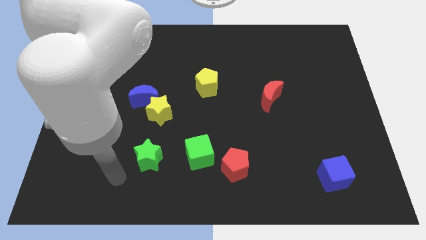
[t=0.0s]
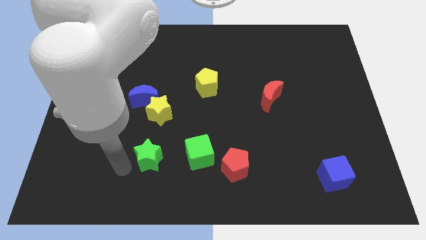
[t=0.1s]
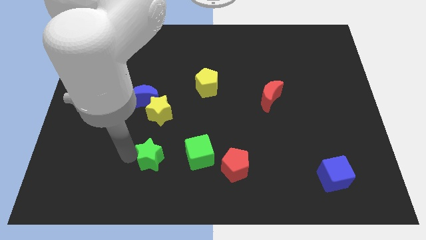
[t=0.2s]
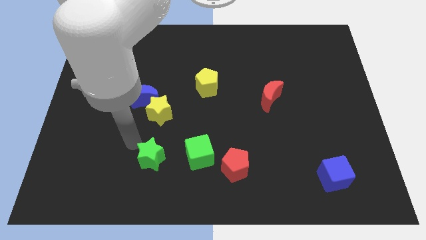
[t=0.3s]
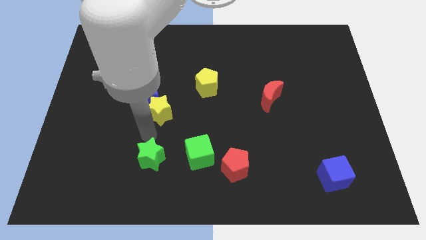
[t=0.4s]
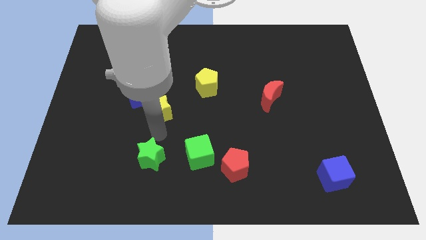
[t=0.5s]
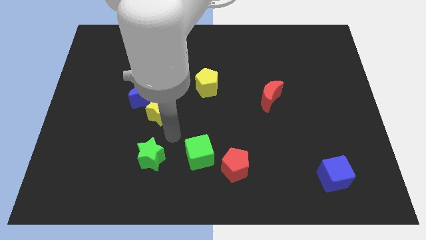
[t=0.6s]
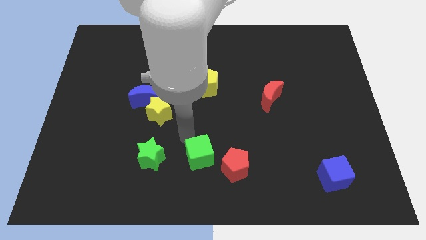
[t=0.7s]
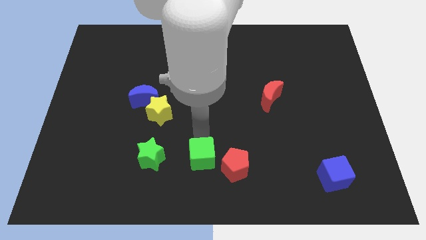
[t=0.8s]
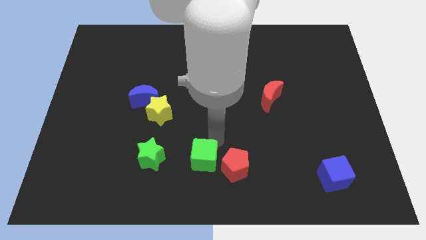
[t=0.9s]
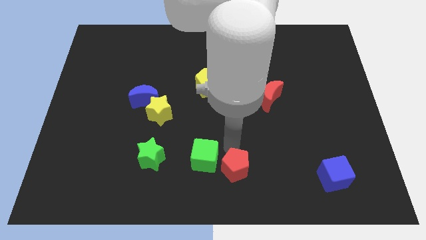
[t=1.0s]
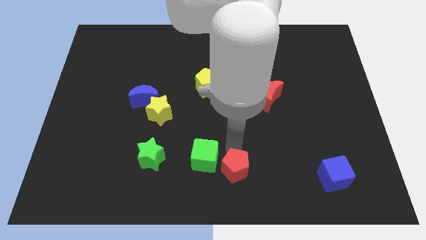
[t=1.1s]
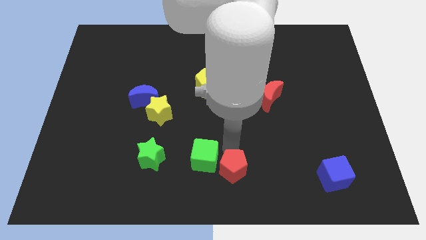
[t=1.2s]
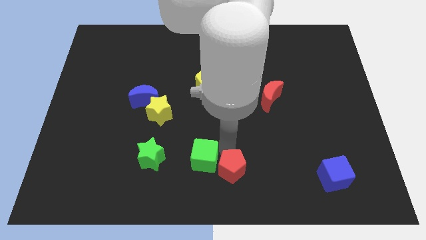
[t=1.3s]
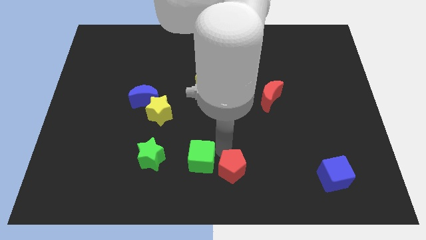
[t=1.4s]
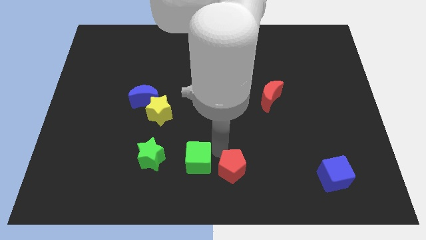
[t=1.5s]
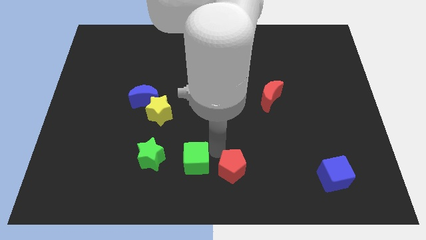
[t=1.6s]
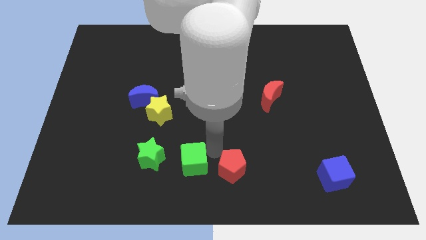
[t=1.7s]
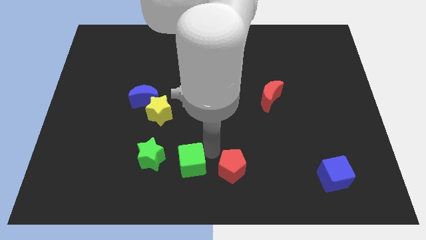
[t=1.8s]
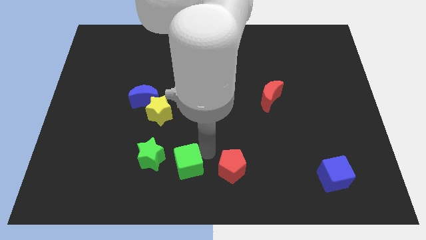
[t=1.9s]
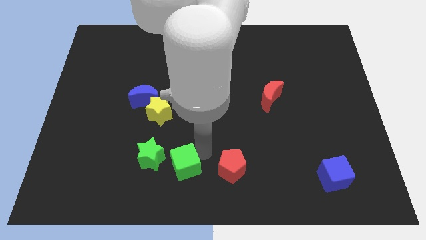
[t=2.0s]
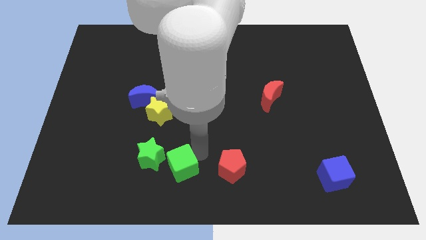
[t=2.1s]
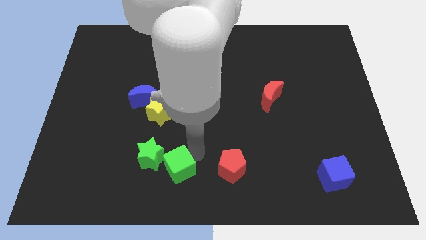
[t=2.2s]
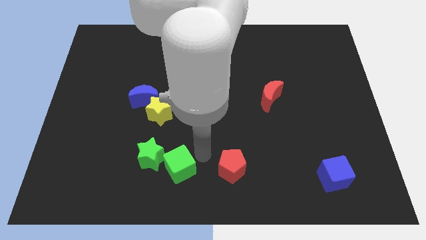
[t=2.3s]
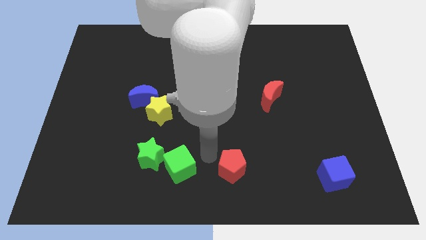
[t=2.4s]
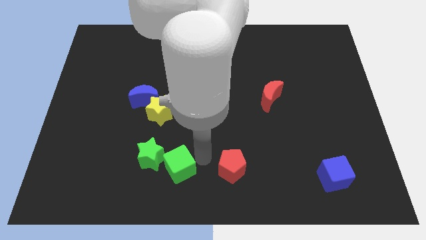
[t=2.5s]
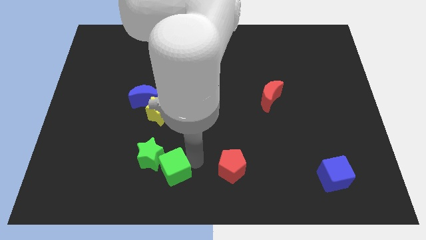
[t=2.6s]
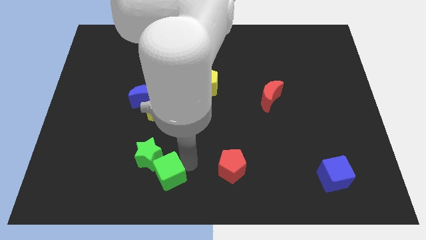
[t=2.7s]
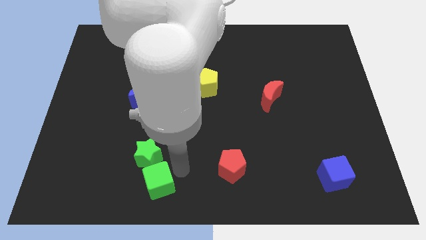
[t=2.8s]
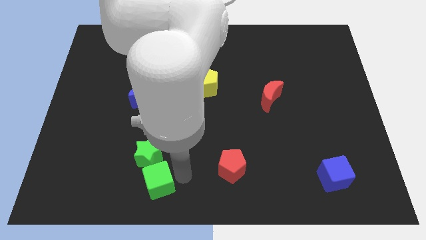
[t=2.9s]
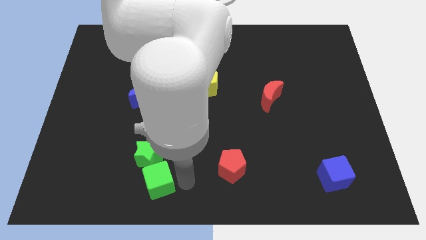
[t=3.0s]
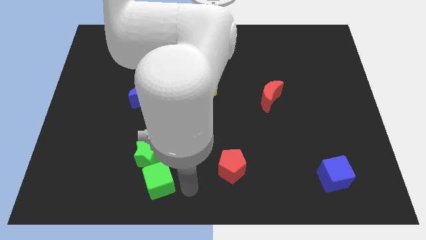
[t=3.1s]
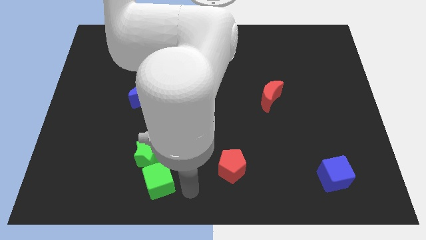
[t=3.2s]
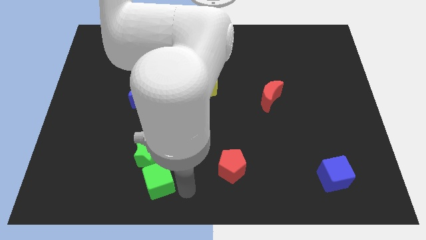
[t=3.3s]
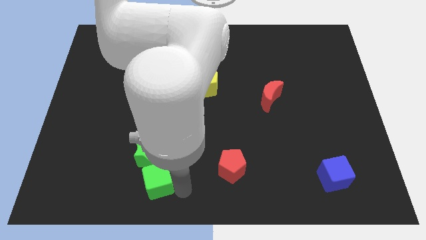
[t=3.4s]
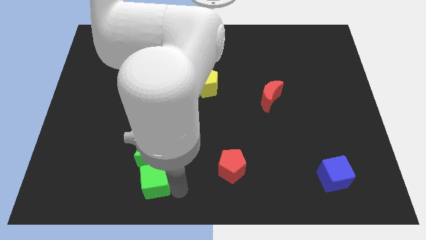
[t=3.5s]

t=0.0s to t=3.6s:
slide the green cube to the left a bit

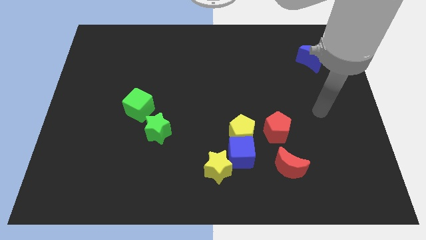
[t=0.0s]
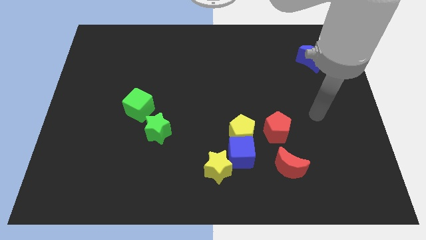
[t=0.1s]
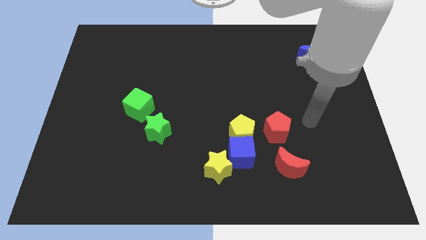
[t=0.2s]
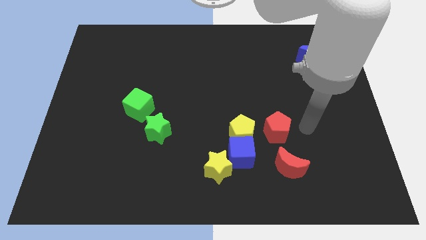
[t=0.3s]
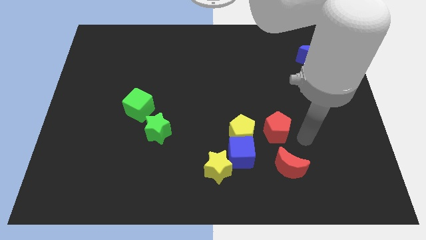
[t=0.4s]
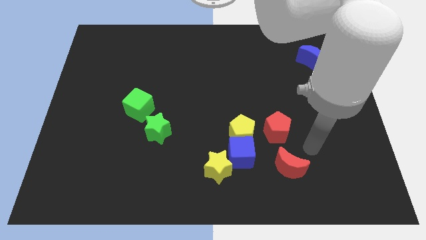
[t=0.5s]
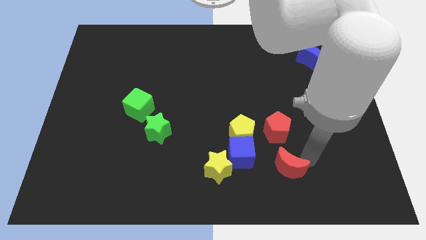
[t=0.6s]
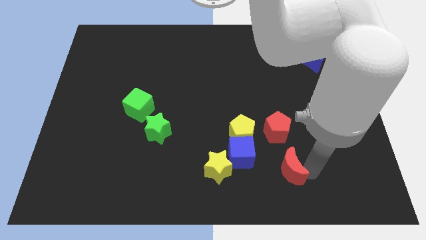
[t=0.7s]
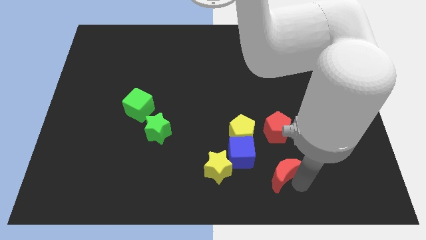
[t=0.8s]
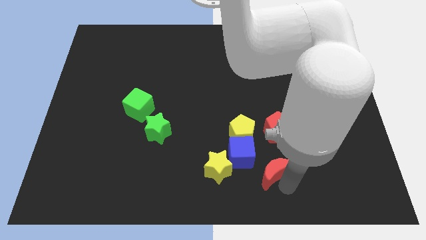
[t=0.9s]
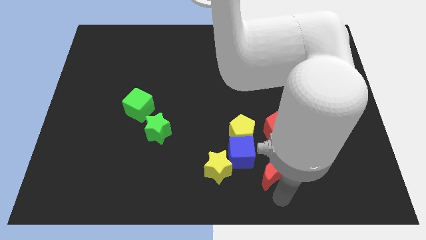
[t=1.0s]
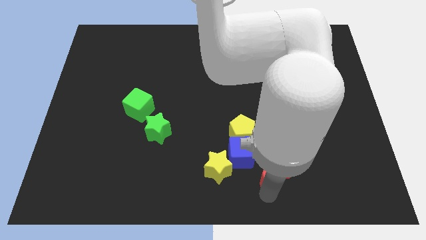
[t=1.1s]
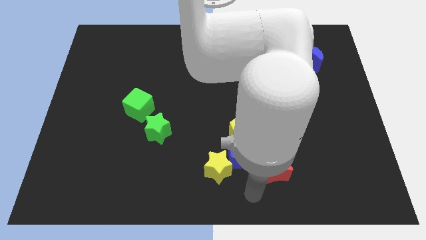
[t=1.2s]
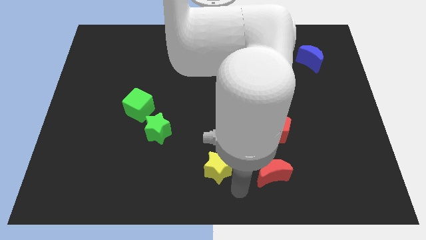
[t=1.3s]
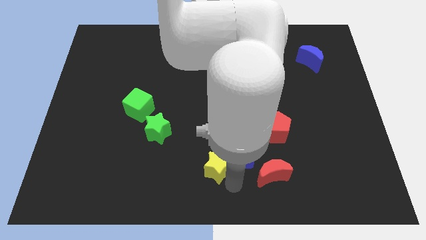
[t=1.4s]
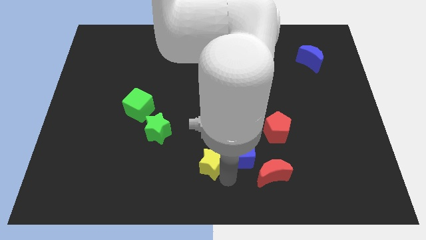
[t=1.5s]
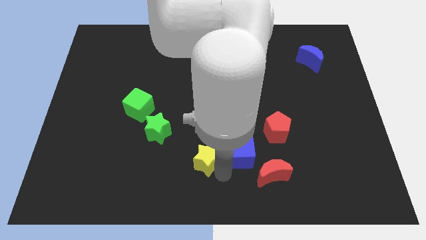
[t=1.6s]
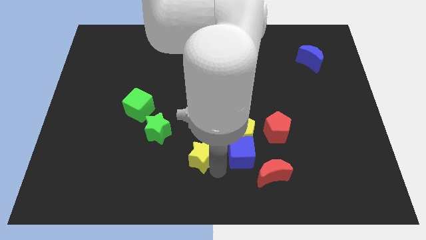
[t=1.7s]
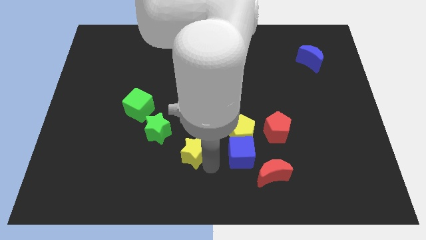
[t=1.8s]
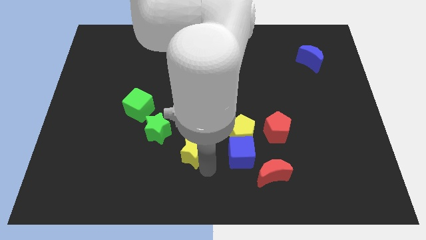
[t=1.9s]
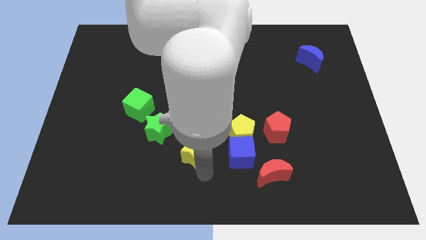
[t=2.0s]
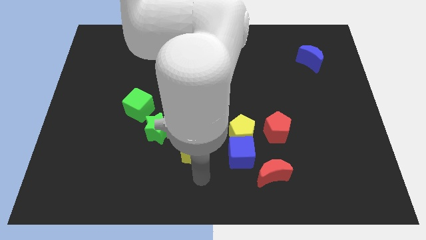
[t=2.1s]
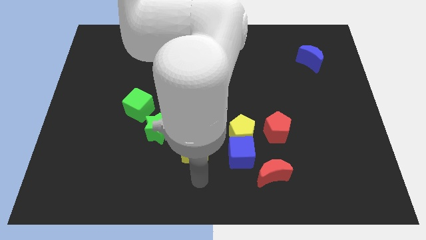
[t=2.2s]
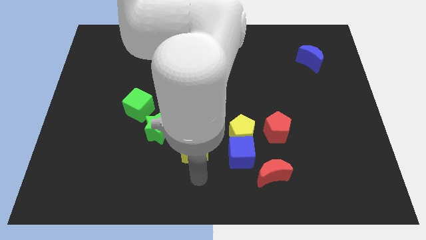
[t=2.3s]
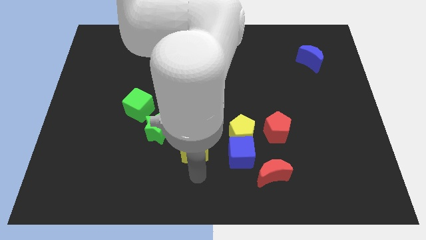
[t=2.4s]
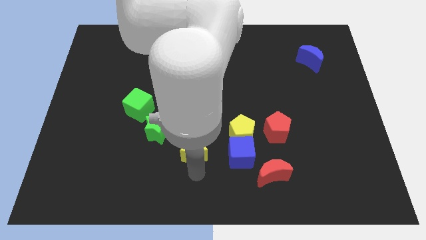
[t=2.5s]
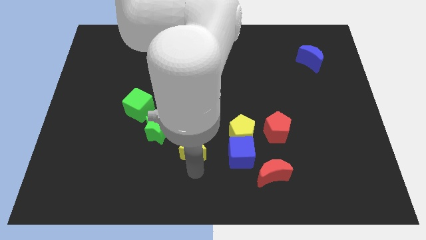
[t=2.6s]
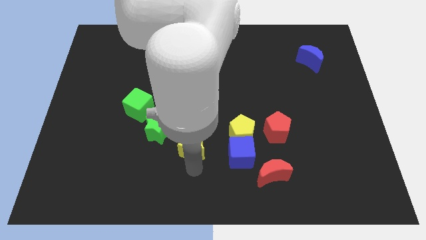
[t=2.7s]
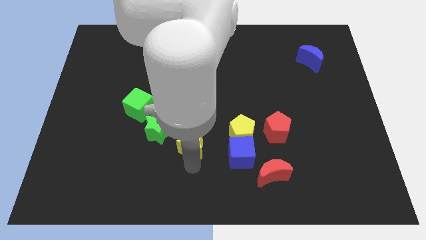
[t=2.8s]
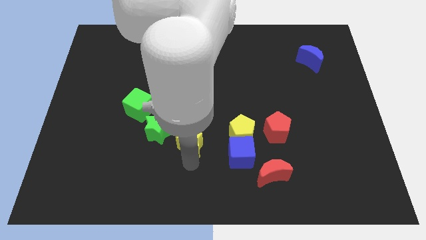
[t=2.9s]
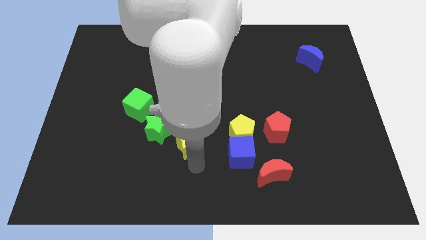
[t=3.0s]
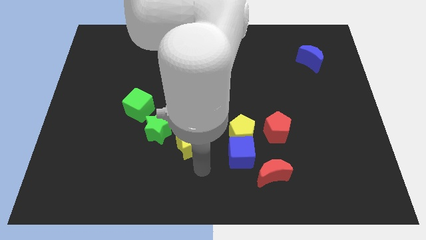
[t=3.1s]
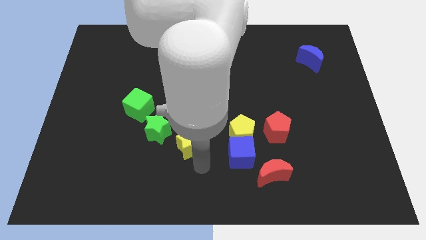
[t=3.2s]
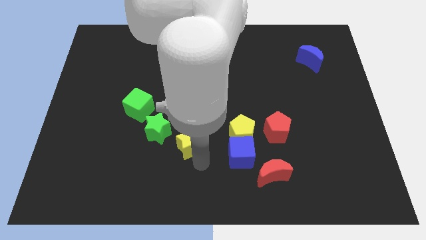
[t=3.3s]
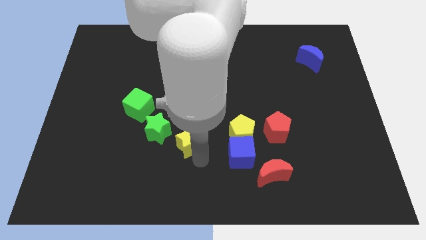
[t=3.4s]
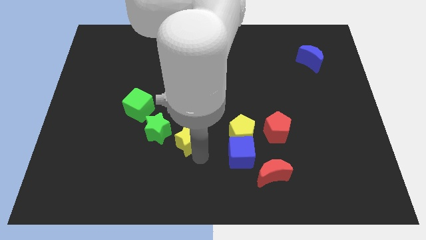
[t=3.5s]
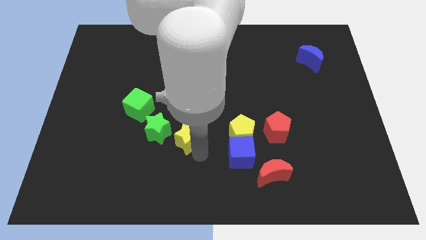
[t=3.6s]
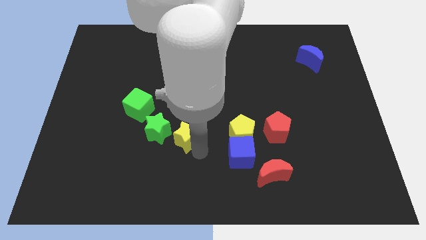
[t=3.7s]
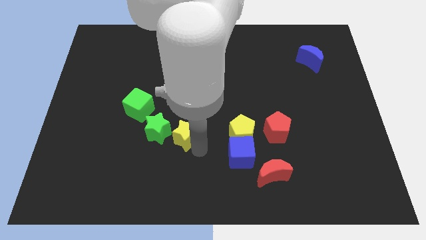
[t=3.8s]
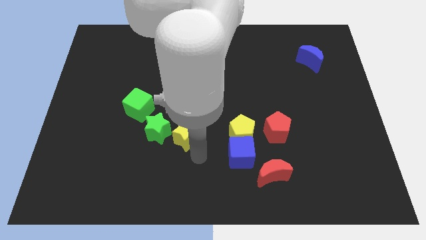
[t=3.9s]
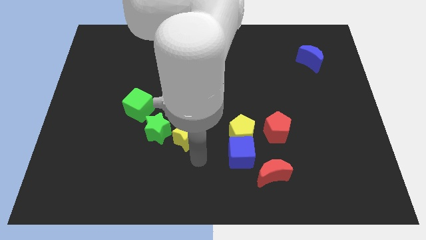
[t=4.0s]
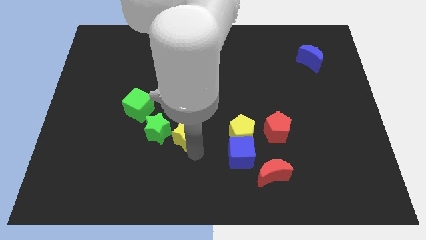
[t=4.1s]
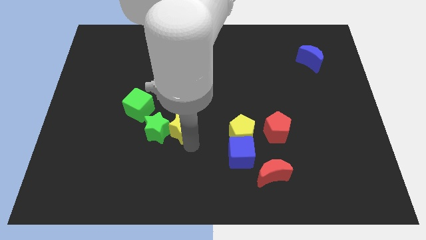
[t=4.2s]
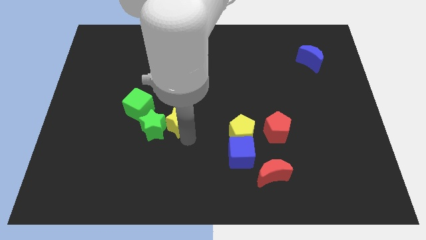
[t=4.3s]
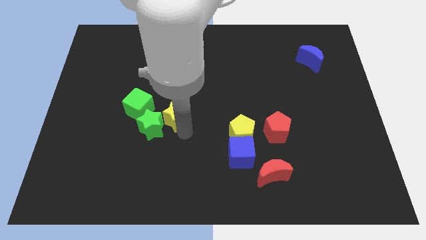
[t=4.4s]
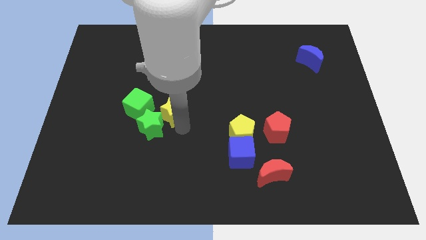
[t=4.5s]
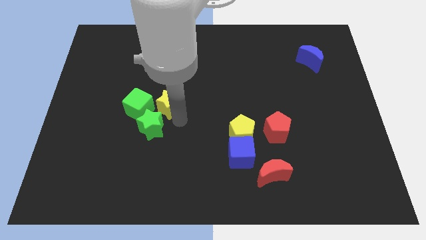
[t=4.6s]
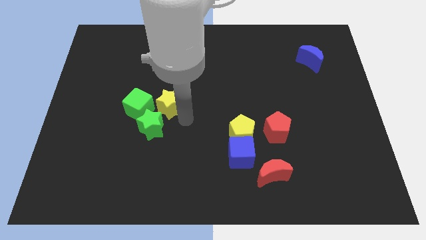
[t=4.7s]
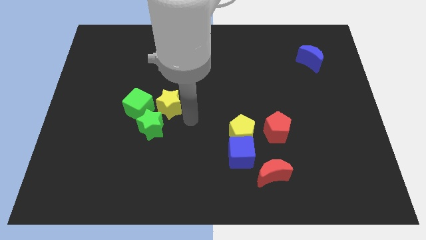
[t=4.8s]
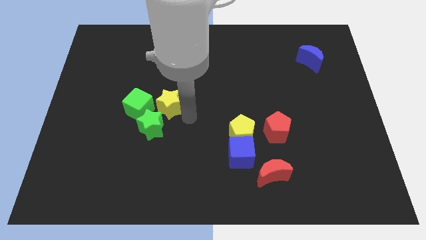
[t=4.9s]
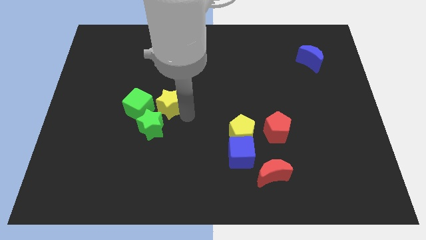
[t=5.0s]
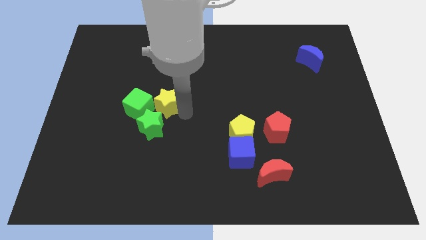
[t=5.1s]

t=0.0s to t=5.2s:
push the yellow star upwards and left diagonally
